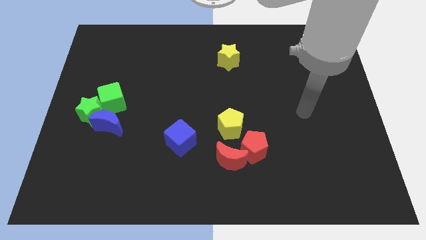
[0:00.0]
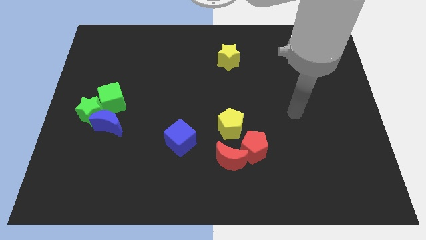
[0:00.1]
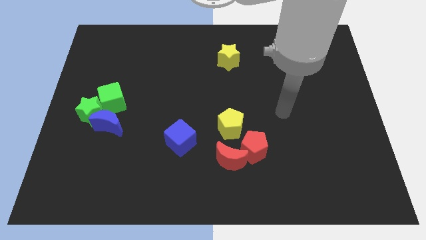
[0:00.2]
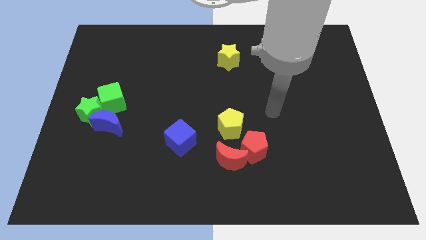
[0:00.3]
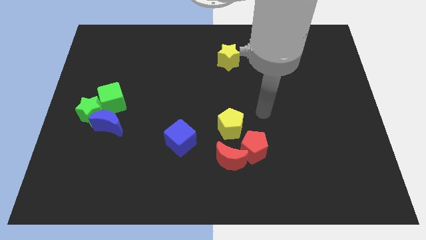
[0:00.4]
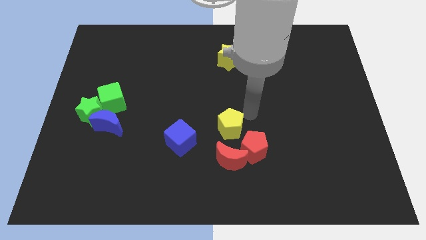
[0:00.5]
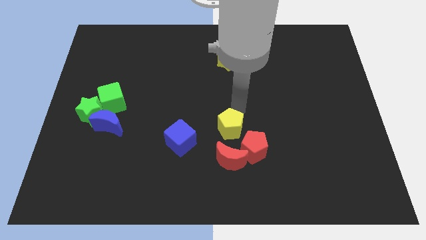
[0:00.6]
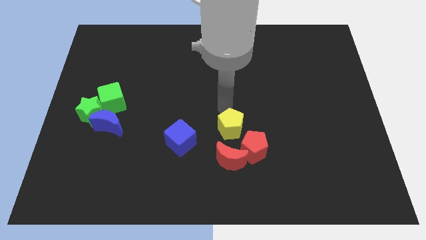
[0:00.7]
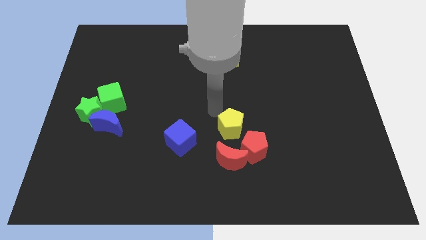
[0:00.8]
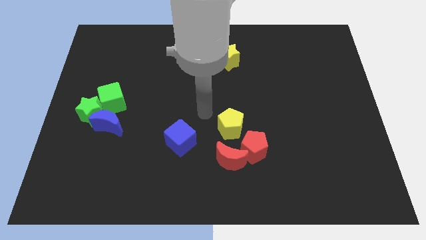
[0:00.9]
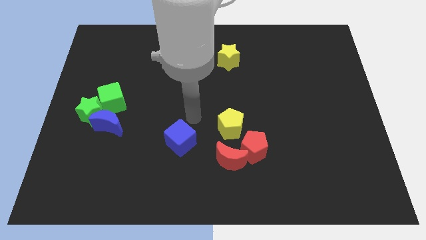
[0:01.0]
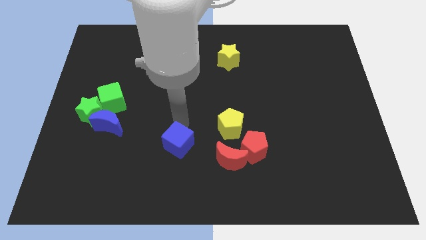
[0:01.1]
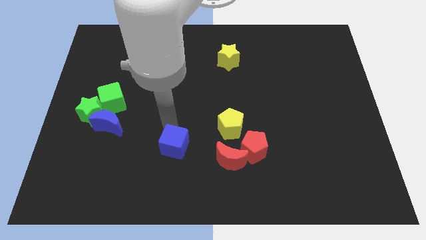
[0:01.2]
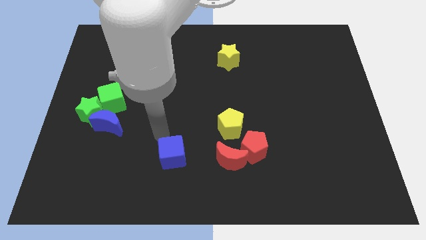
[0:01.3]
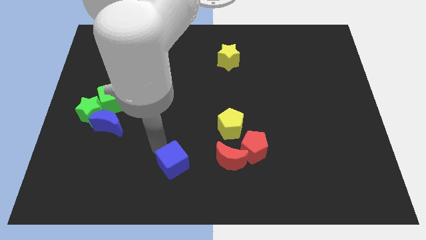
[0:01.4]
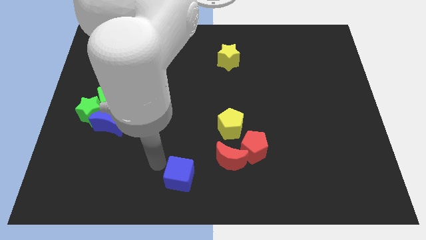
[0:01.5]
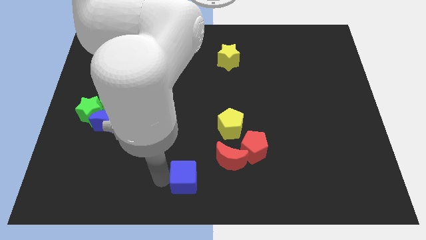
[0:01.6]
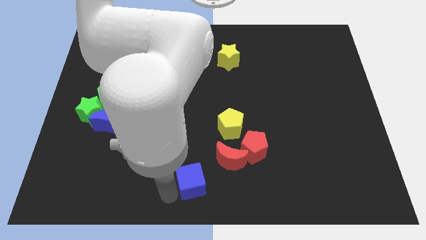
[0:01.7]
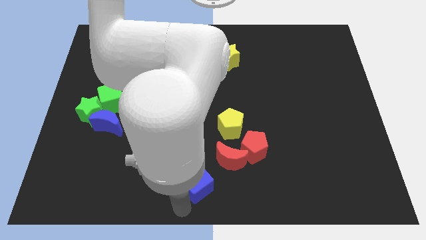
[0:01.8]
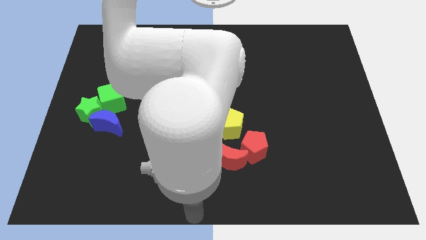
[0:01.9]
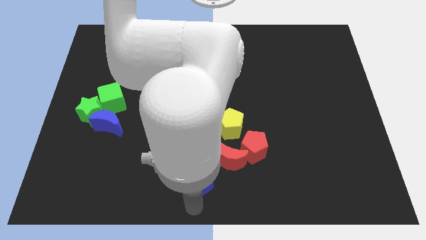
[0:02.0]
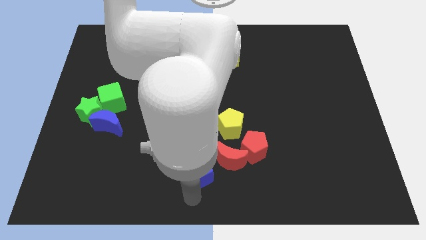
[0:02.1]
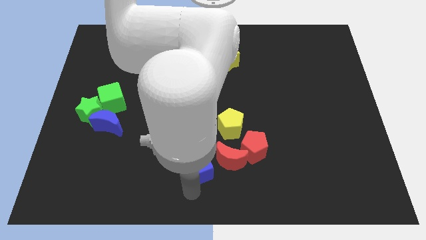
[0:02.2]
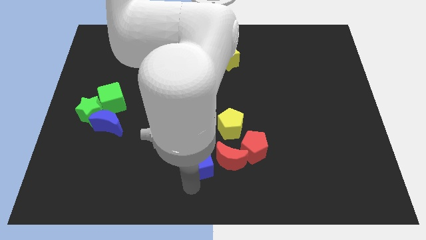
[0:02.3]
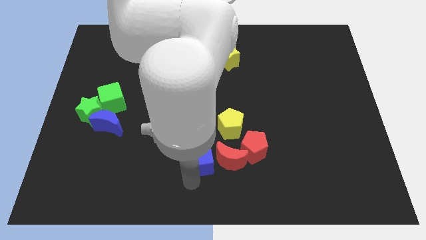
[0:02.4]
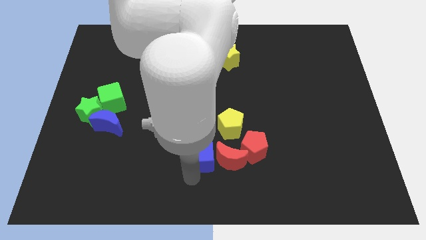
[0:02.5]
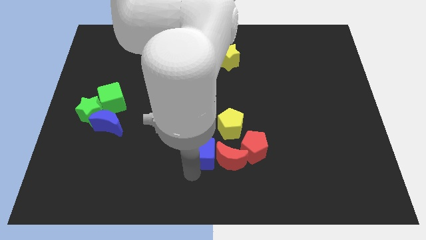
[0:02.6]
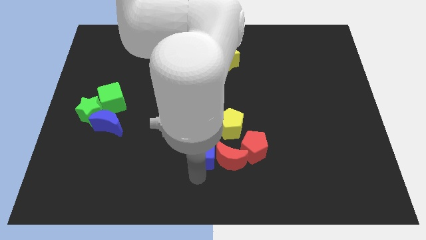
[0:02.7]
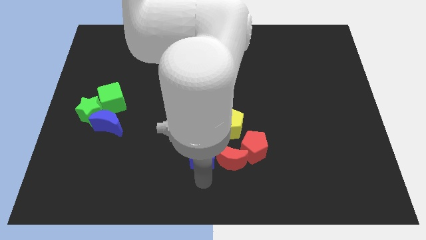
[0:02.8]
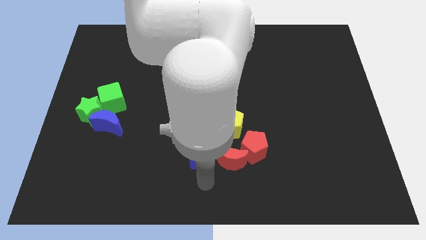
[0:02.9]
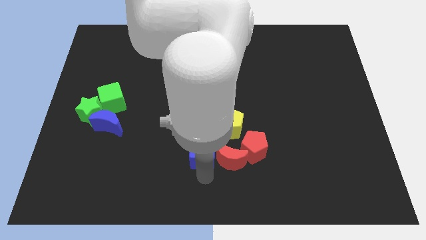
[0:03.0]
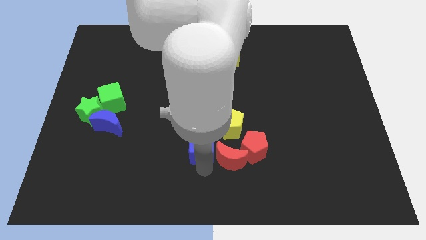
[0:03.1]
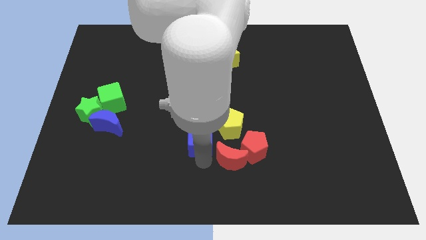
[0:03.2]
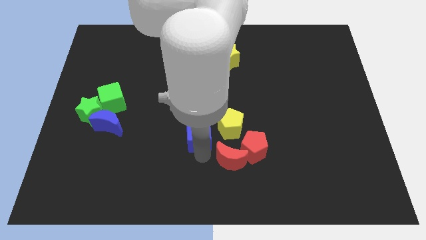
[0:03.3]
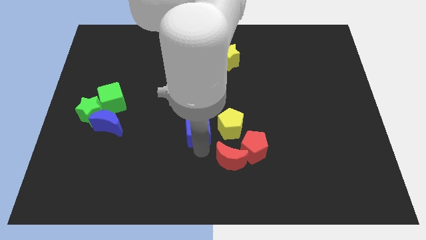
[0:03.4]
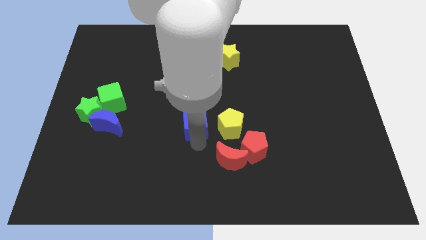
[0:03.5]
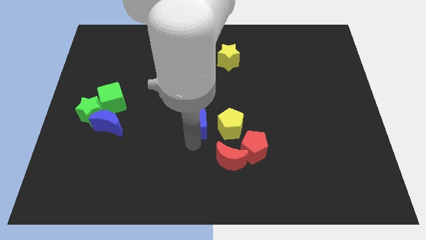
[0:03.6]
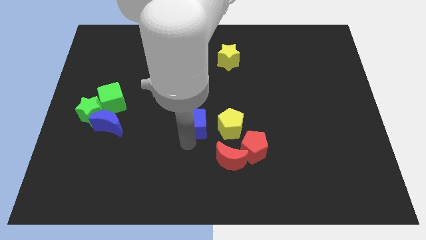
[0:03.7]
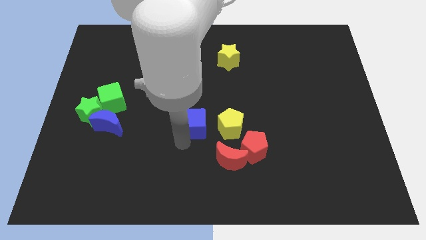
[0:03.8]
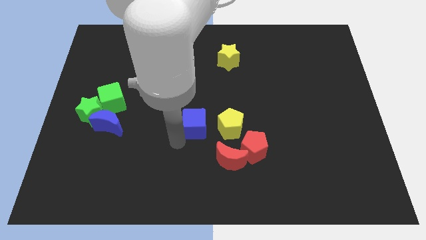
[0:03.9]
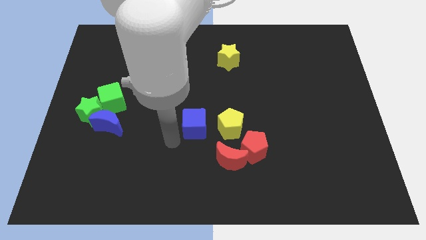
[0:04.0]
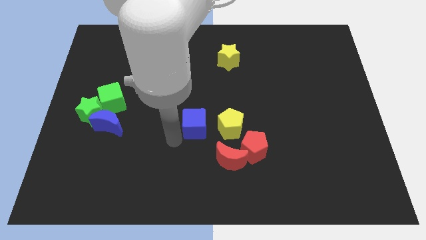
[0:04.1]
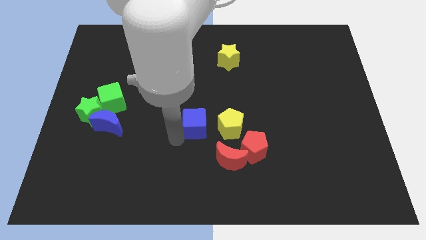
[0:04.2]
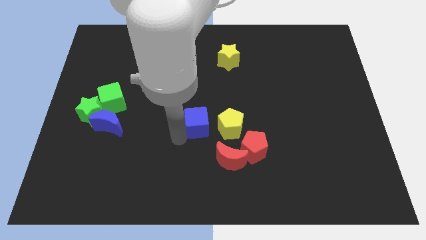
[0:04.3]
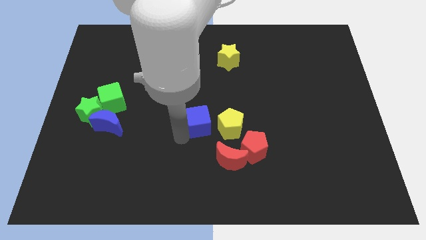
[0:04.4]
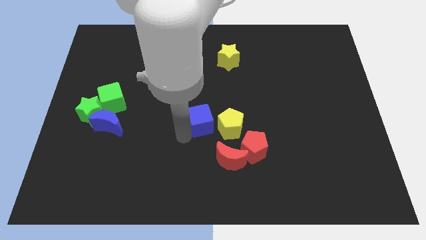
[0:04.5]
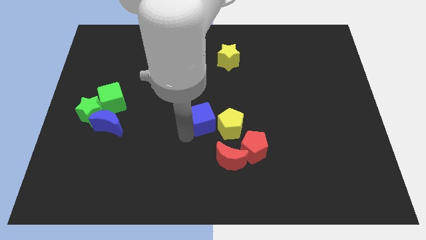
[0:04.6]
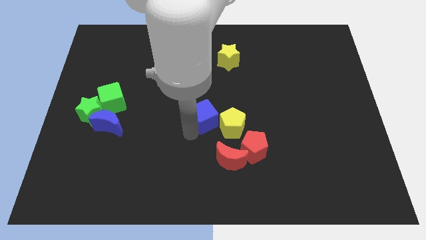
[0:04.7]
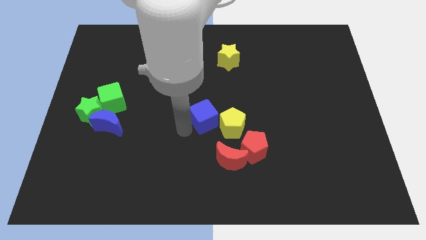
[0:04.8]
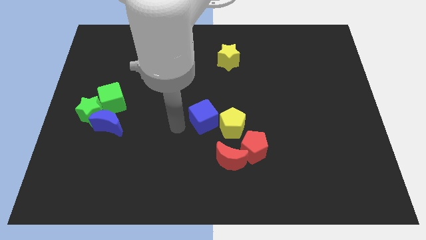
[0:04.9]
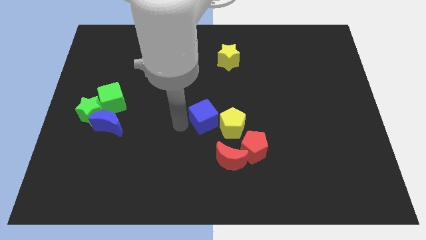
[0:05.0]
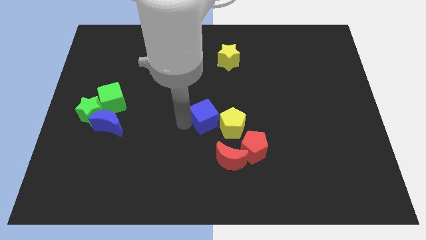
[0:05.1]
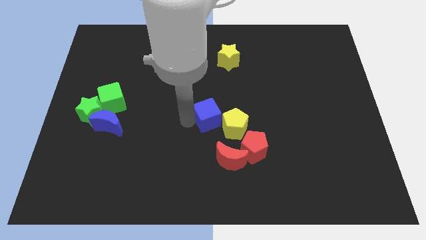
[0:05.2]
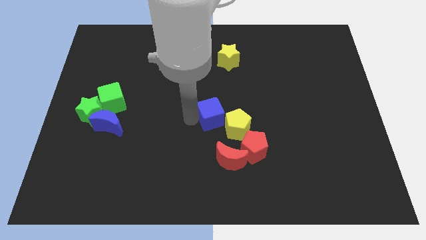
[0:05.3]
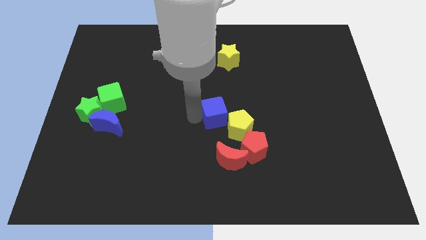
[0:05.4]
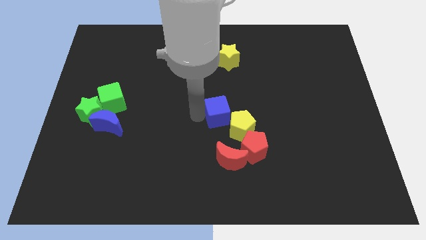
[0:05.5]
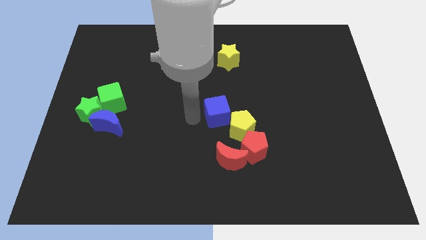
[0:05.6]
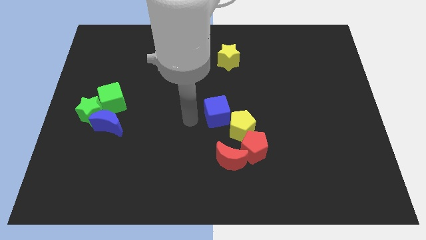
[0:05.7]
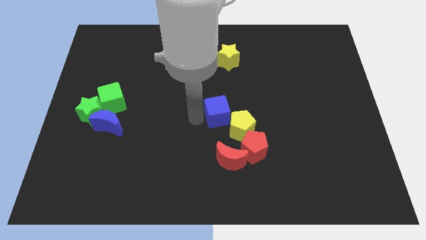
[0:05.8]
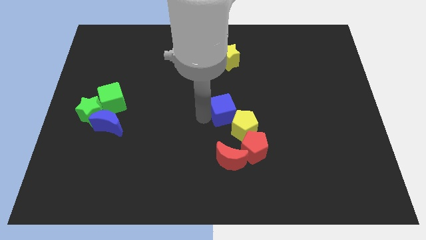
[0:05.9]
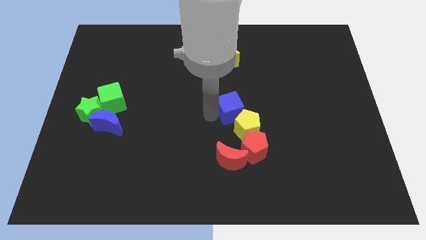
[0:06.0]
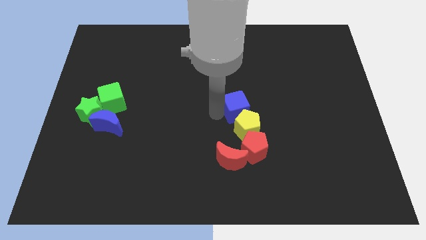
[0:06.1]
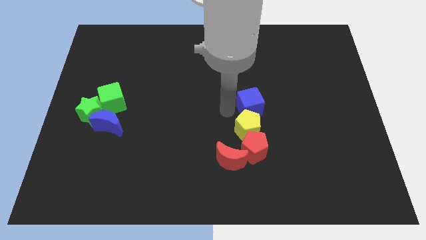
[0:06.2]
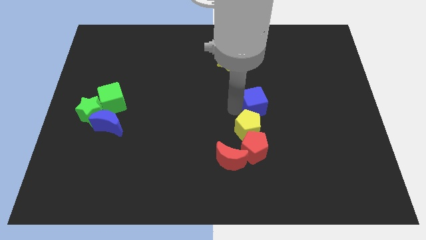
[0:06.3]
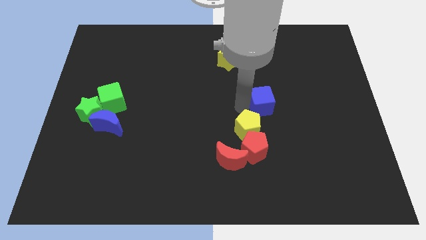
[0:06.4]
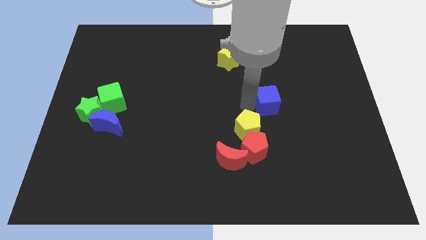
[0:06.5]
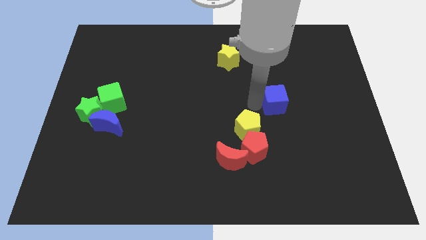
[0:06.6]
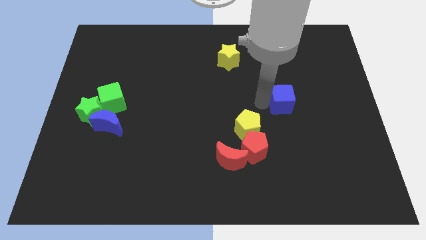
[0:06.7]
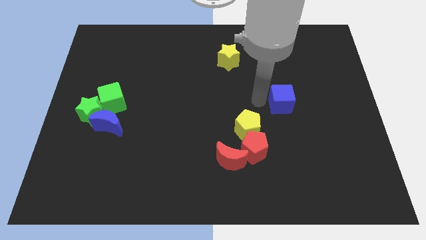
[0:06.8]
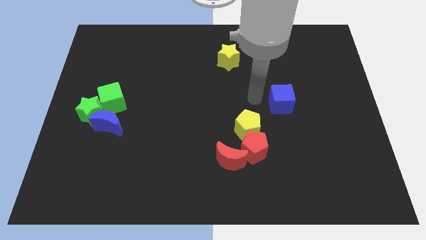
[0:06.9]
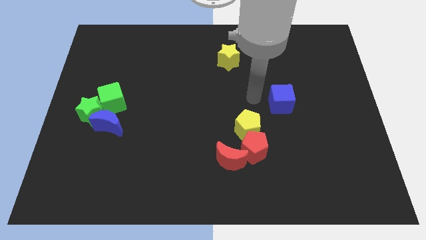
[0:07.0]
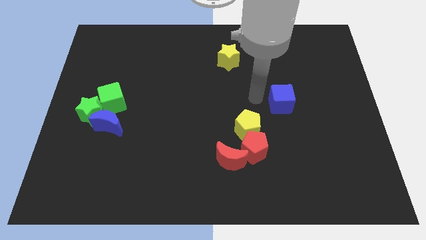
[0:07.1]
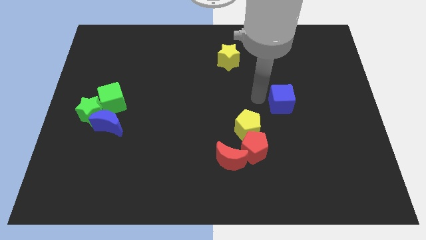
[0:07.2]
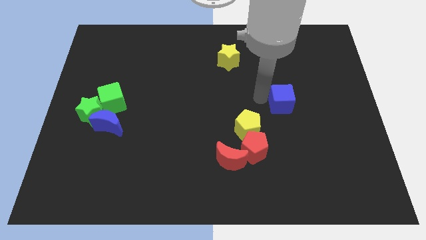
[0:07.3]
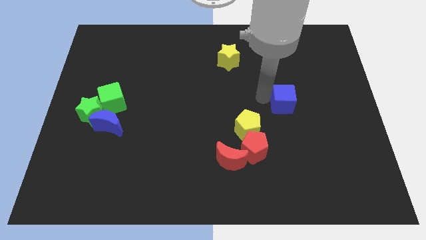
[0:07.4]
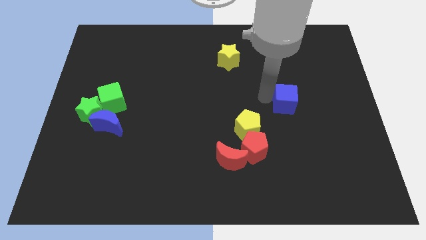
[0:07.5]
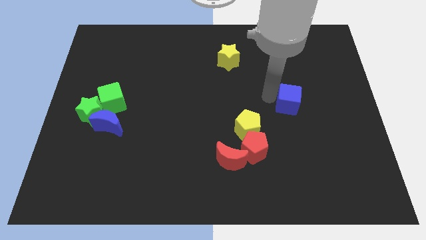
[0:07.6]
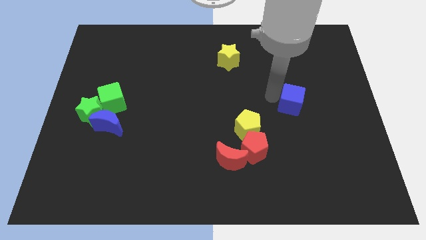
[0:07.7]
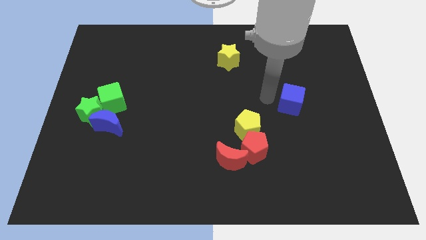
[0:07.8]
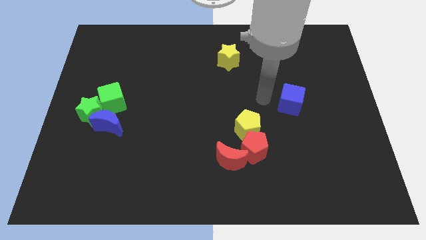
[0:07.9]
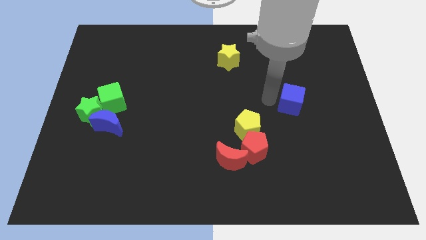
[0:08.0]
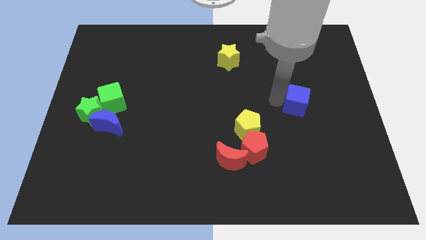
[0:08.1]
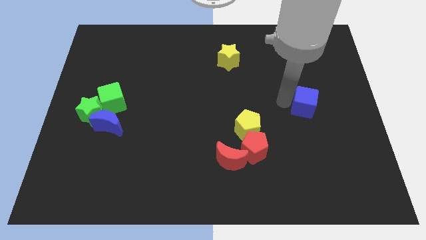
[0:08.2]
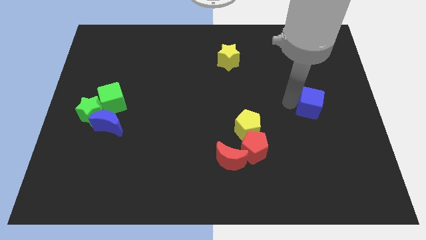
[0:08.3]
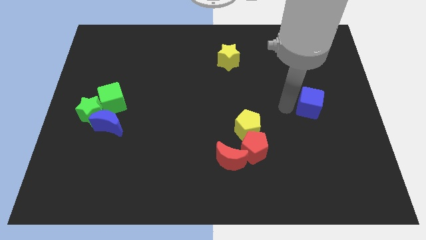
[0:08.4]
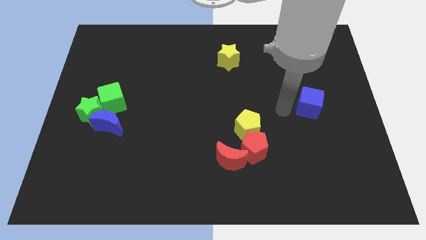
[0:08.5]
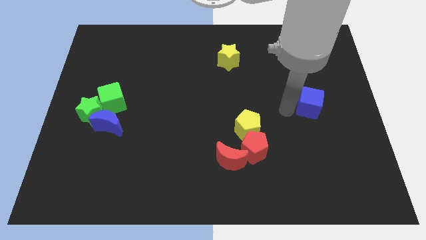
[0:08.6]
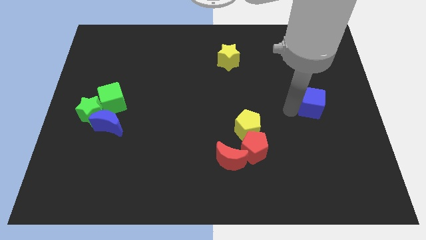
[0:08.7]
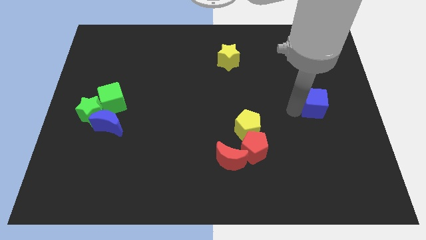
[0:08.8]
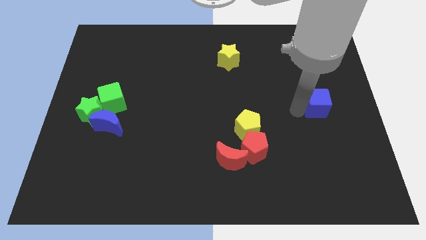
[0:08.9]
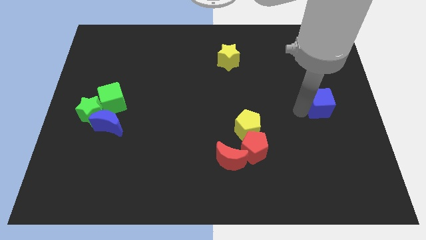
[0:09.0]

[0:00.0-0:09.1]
slide the blue cube to the right side
